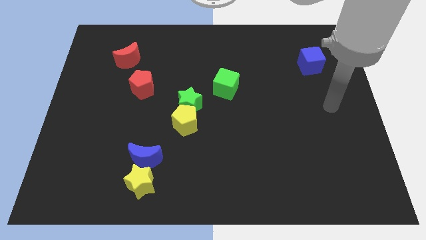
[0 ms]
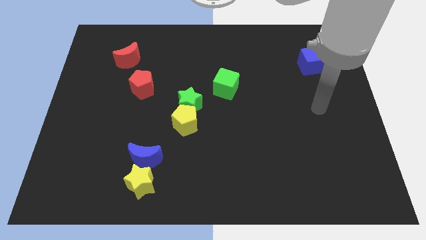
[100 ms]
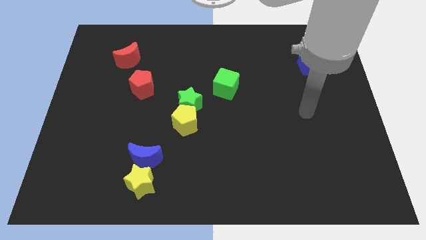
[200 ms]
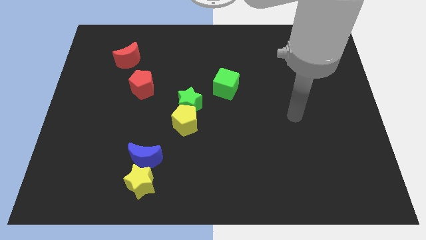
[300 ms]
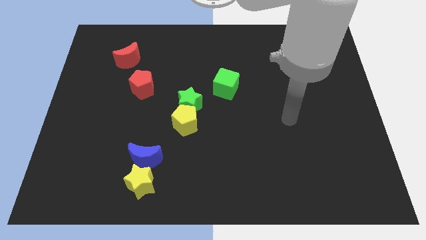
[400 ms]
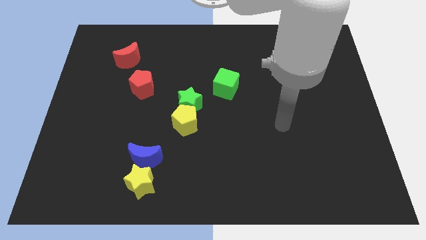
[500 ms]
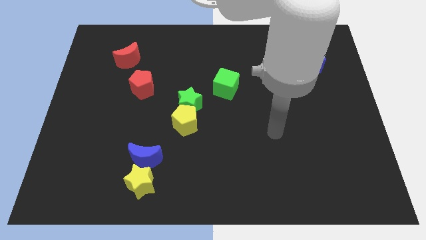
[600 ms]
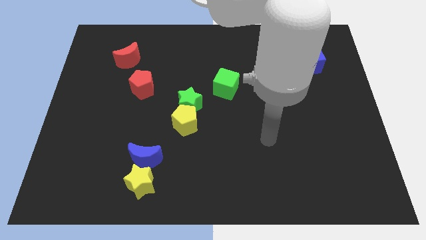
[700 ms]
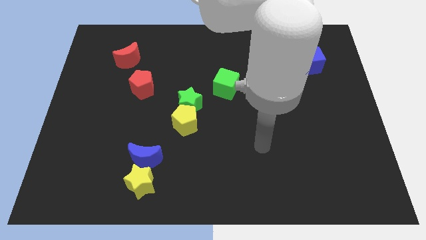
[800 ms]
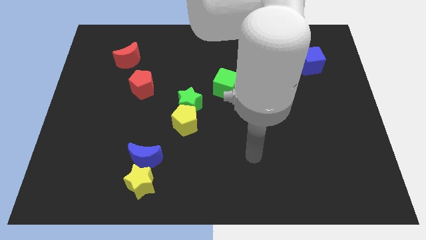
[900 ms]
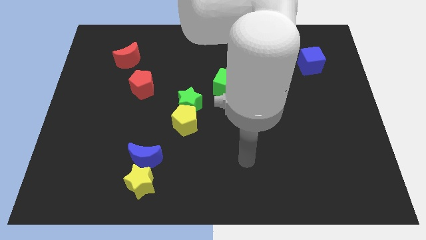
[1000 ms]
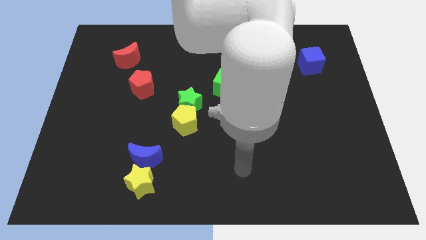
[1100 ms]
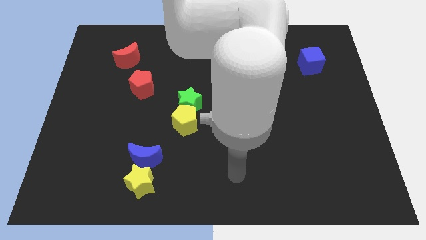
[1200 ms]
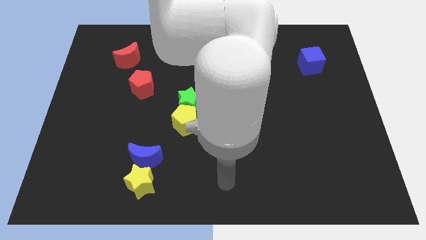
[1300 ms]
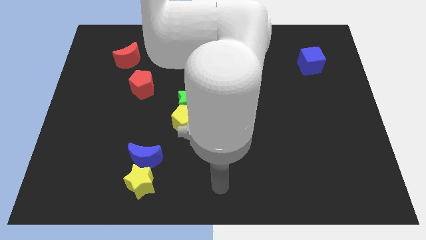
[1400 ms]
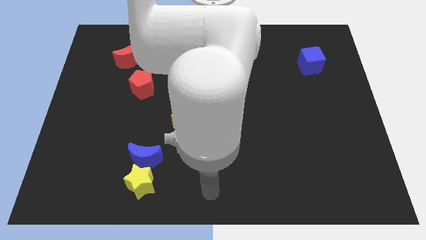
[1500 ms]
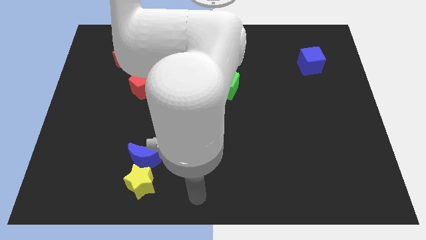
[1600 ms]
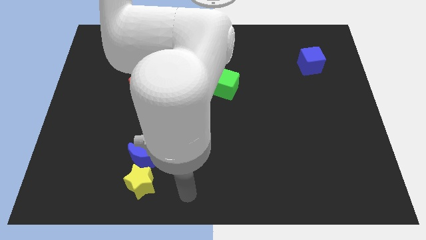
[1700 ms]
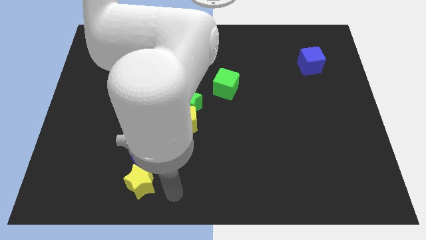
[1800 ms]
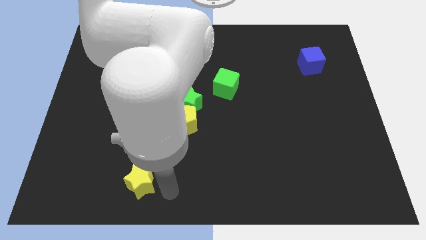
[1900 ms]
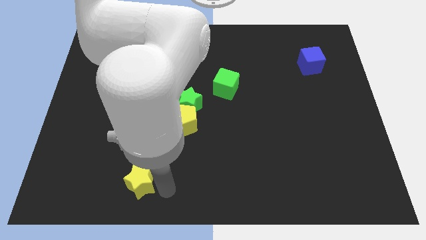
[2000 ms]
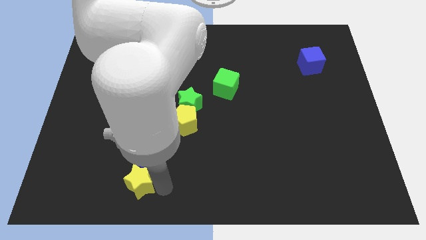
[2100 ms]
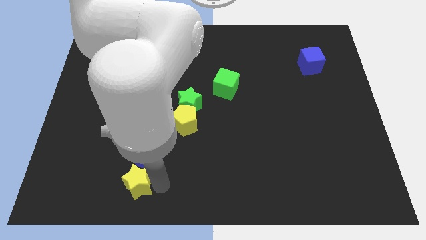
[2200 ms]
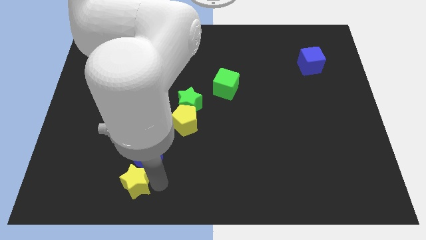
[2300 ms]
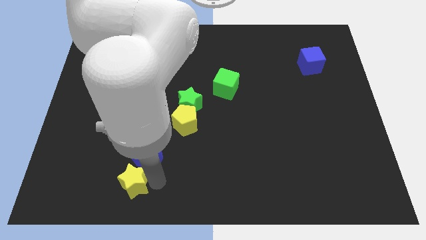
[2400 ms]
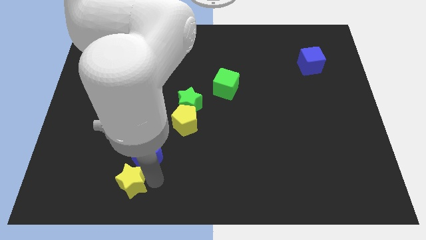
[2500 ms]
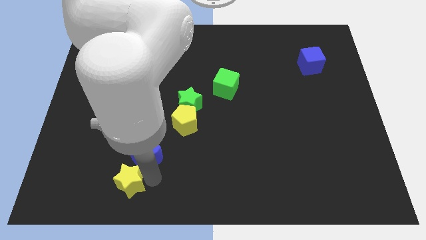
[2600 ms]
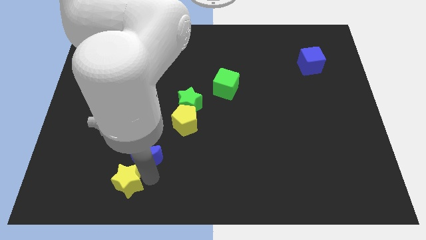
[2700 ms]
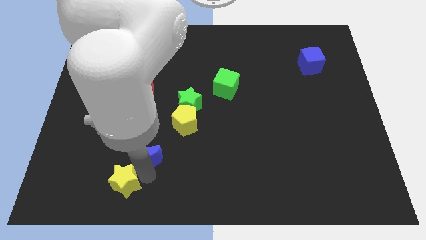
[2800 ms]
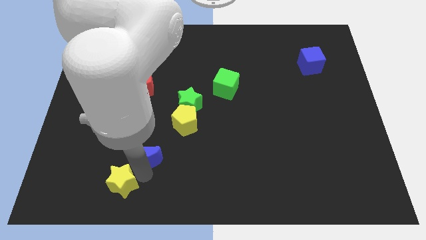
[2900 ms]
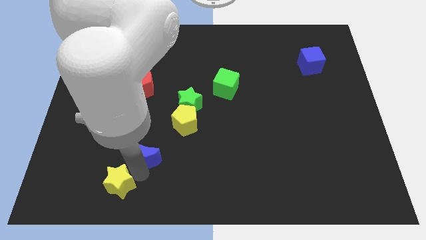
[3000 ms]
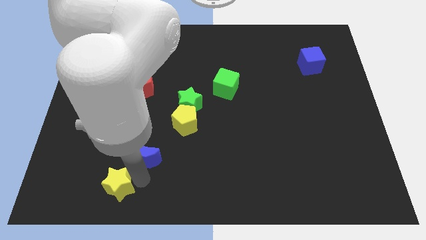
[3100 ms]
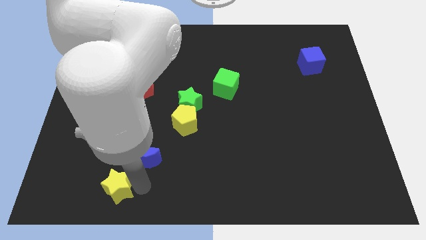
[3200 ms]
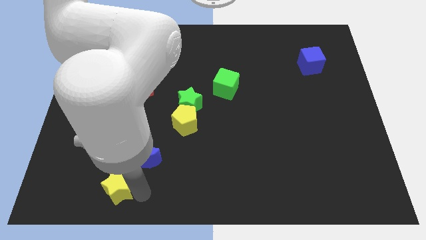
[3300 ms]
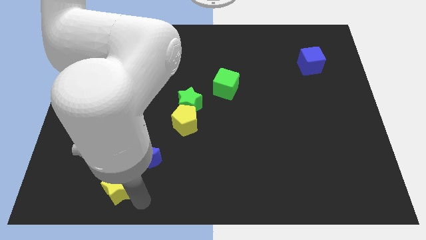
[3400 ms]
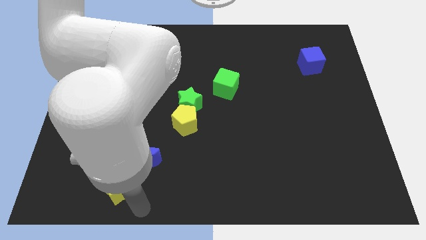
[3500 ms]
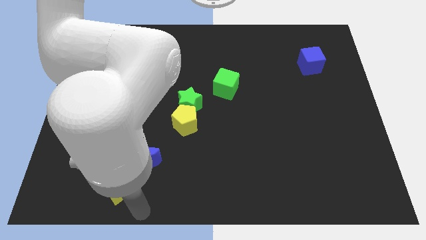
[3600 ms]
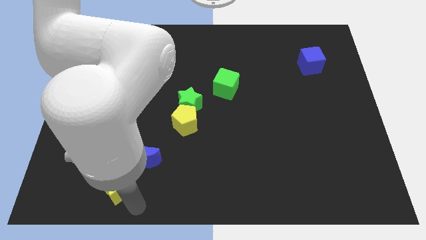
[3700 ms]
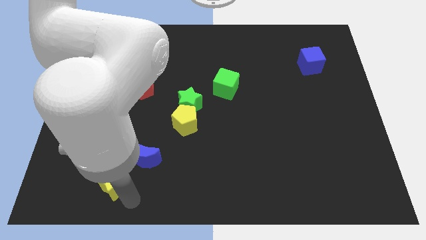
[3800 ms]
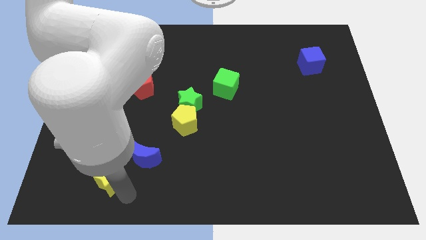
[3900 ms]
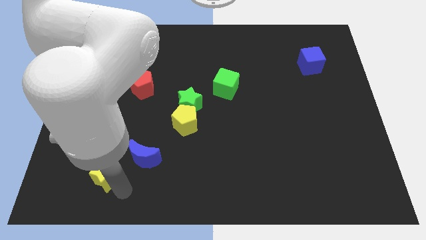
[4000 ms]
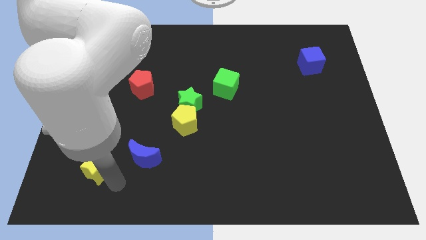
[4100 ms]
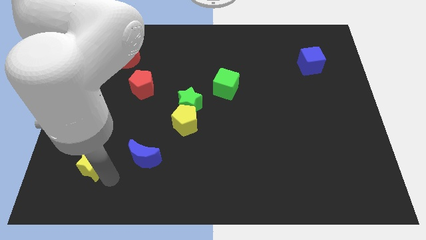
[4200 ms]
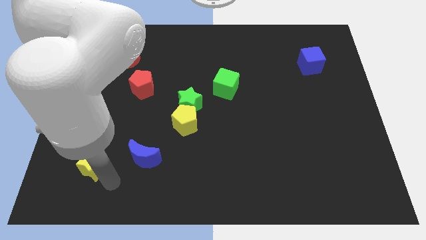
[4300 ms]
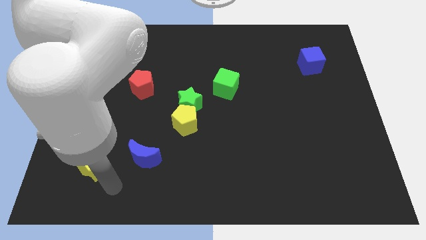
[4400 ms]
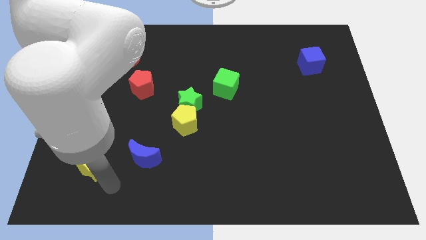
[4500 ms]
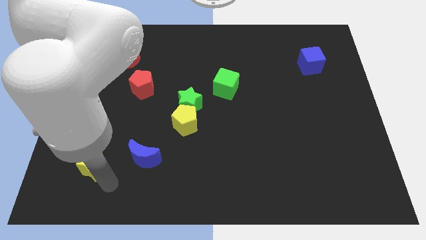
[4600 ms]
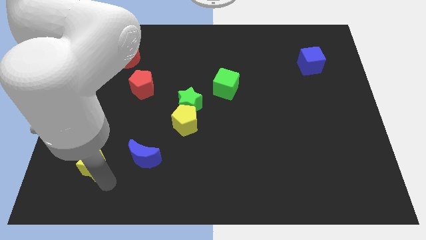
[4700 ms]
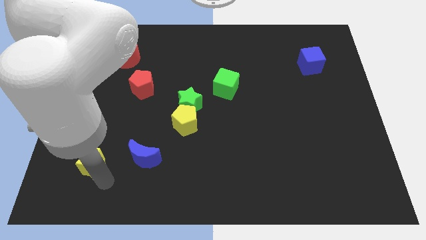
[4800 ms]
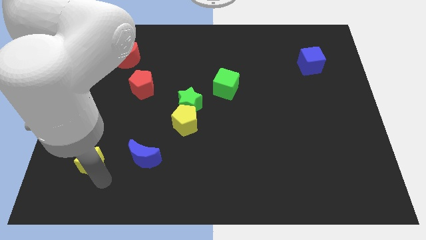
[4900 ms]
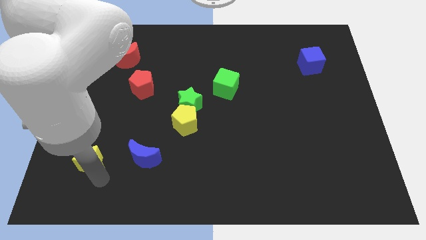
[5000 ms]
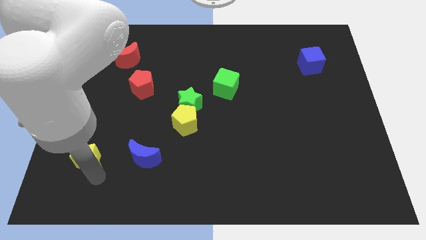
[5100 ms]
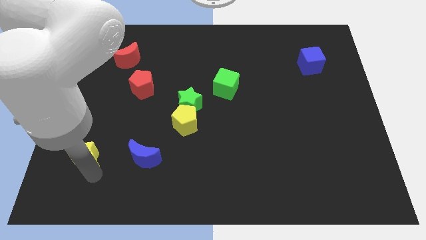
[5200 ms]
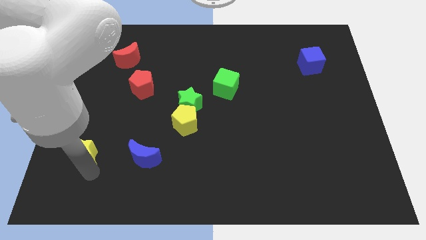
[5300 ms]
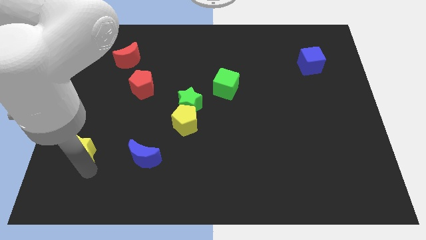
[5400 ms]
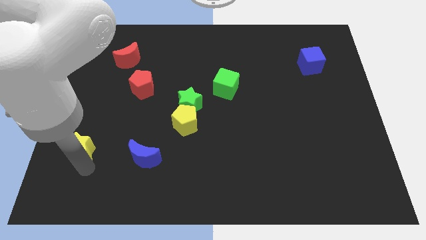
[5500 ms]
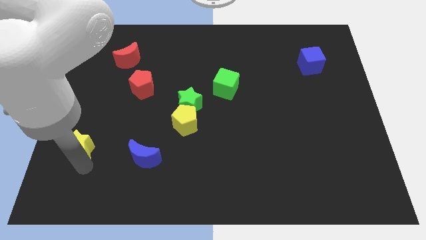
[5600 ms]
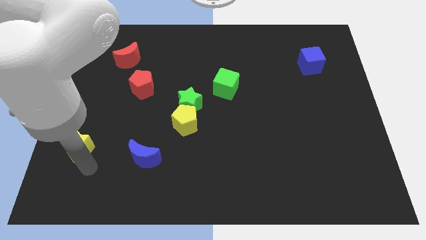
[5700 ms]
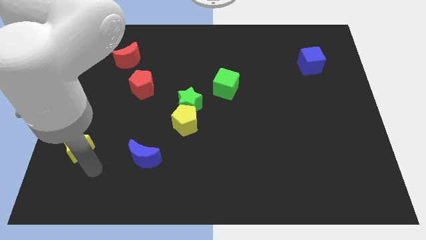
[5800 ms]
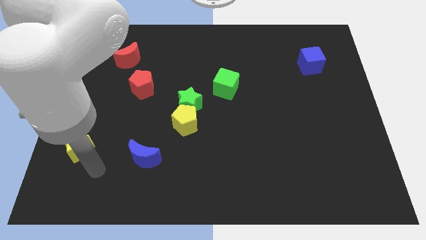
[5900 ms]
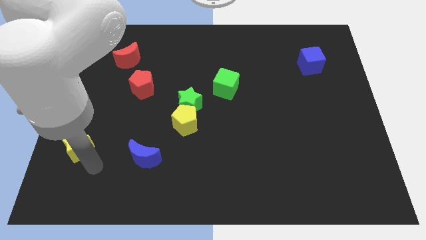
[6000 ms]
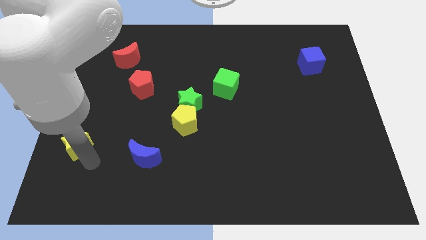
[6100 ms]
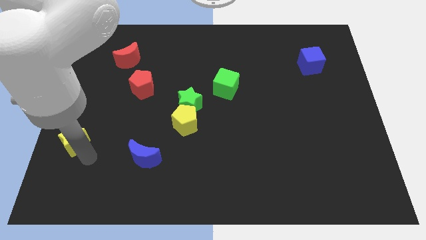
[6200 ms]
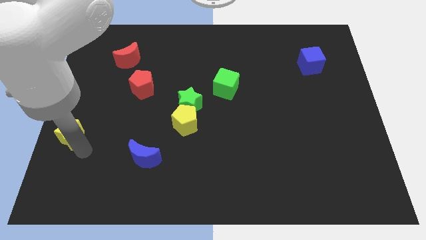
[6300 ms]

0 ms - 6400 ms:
put the yellow star to the center left
